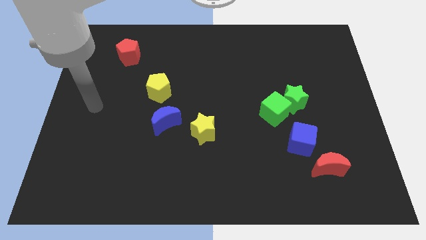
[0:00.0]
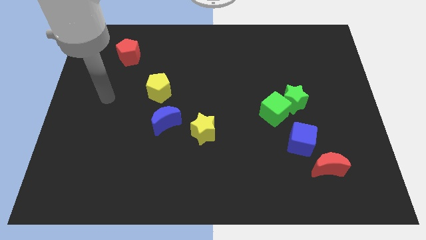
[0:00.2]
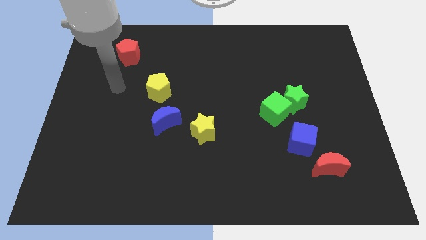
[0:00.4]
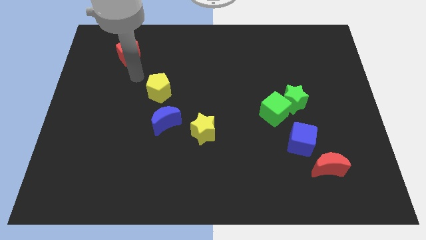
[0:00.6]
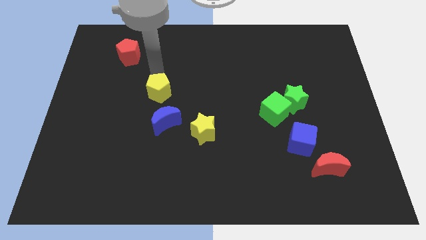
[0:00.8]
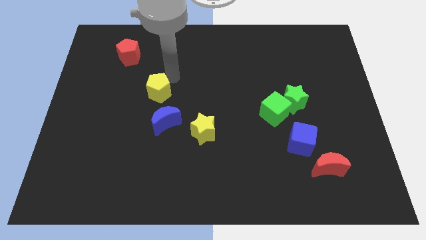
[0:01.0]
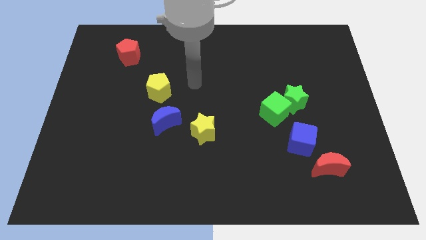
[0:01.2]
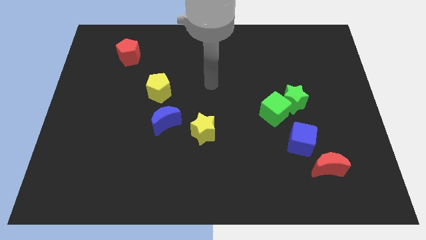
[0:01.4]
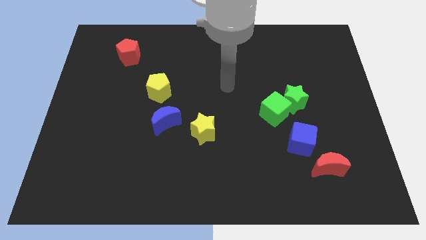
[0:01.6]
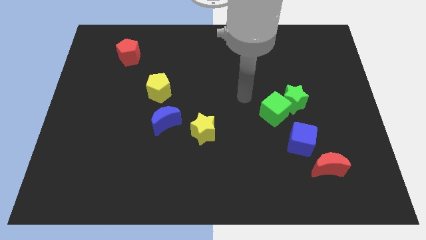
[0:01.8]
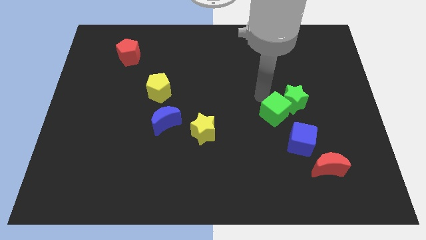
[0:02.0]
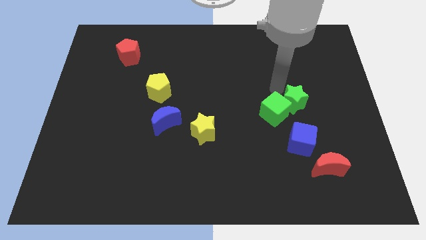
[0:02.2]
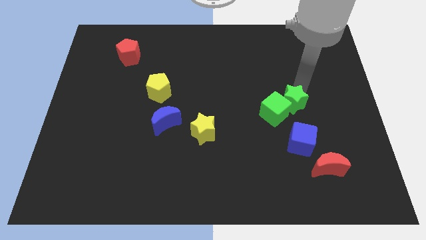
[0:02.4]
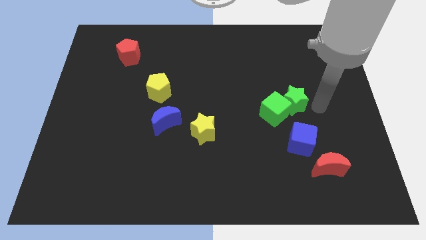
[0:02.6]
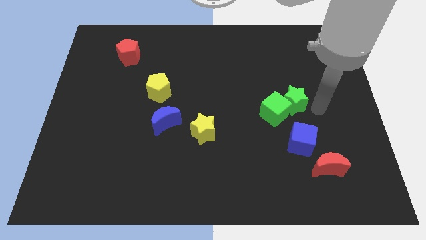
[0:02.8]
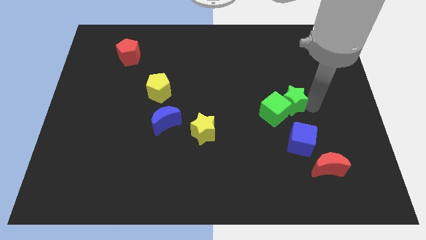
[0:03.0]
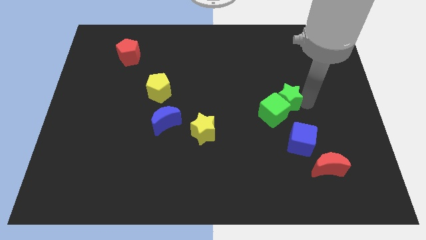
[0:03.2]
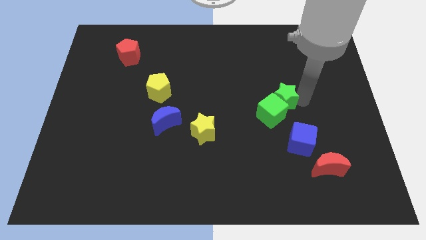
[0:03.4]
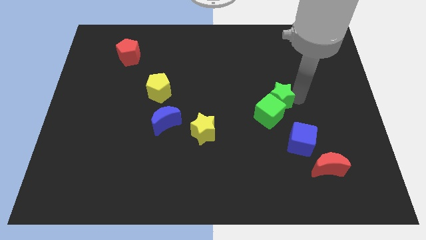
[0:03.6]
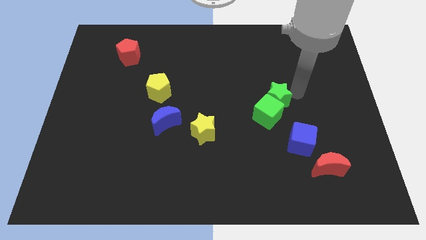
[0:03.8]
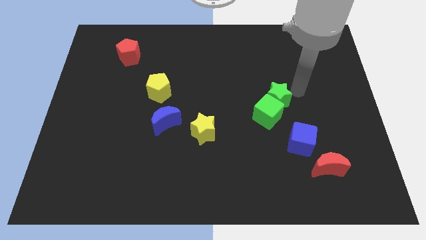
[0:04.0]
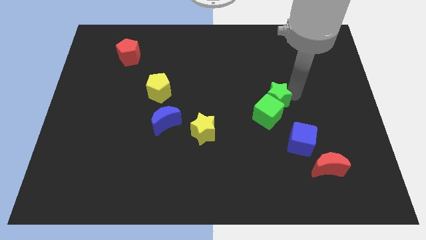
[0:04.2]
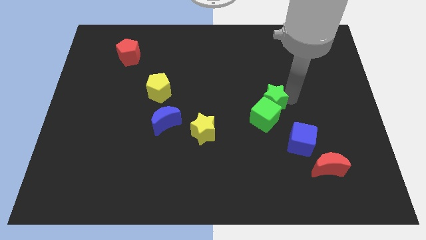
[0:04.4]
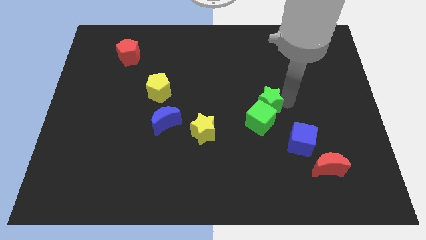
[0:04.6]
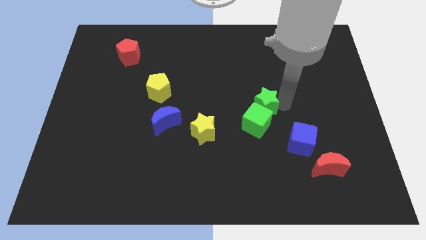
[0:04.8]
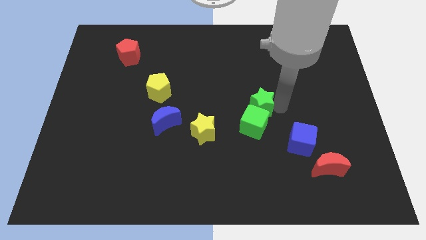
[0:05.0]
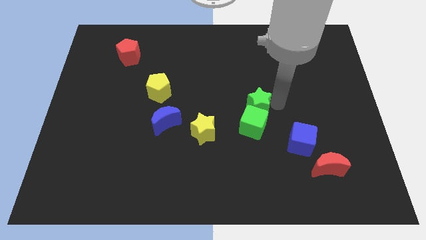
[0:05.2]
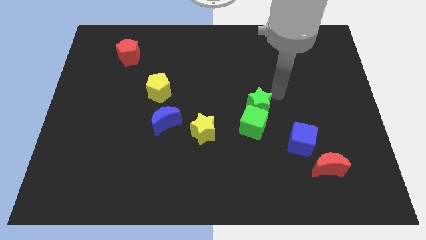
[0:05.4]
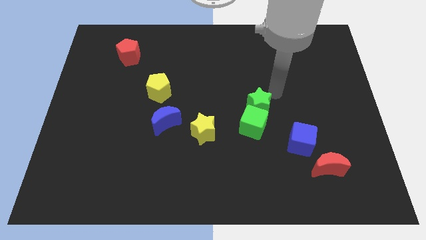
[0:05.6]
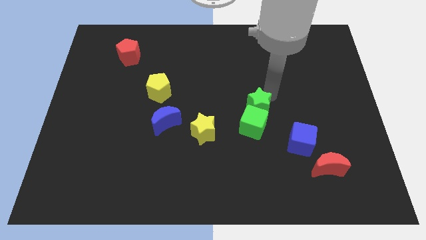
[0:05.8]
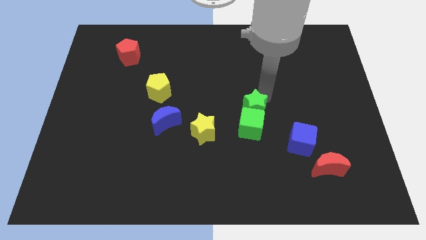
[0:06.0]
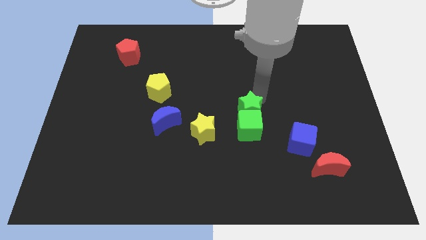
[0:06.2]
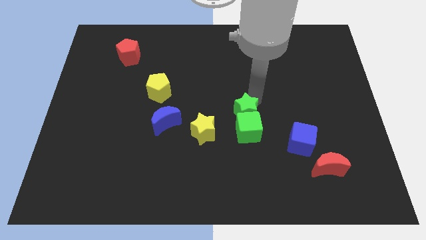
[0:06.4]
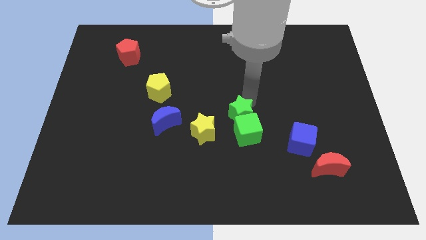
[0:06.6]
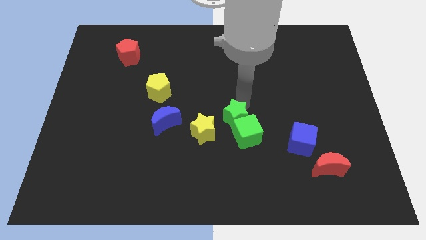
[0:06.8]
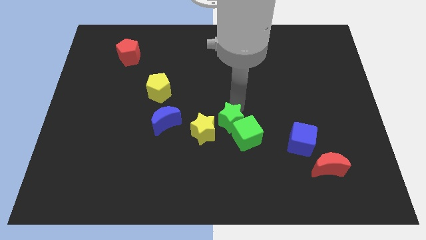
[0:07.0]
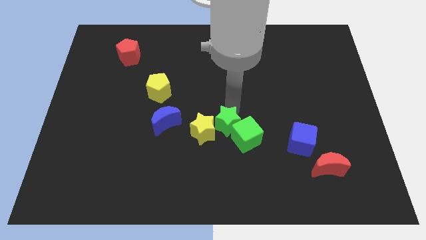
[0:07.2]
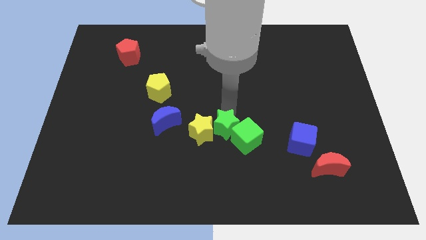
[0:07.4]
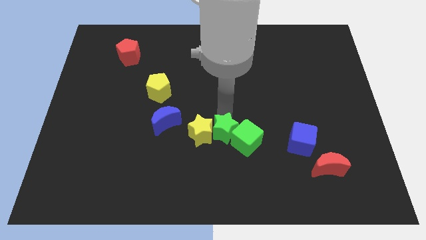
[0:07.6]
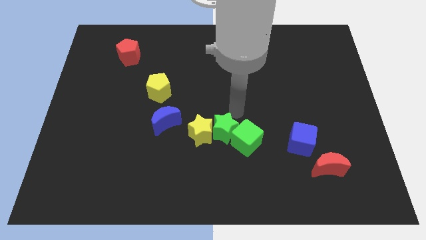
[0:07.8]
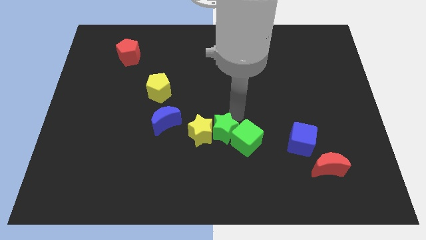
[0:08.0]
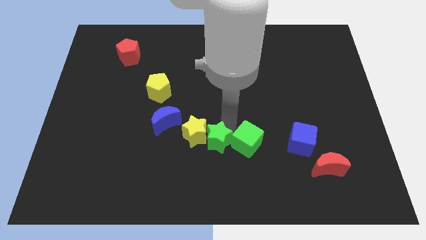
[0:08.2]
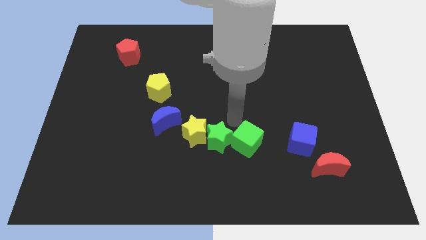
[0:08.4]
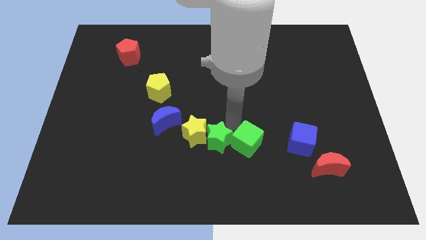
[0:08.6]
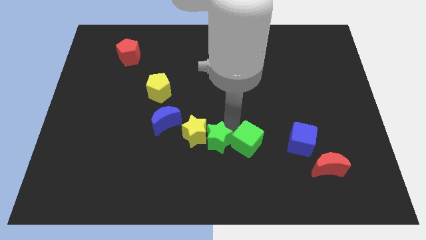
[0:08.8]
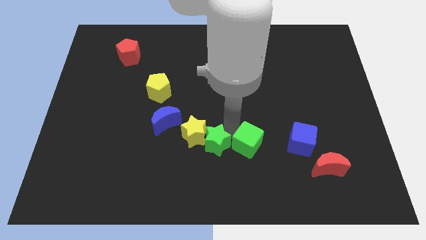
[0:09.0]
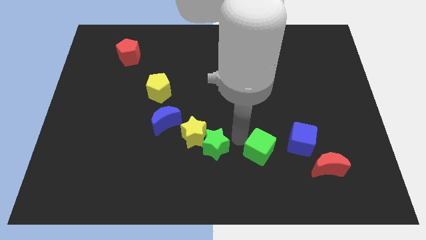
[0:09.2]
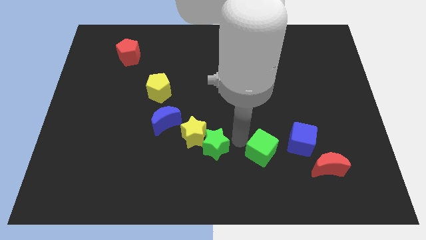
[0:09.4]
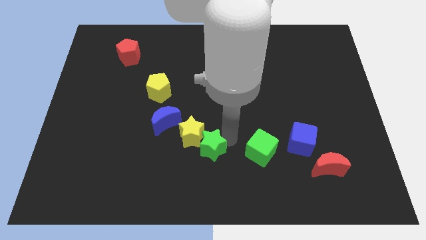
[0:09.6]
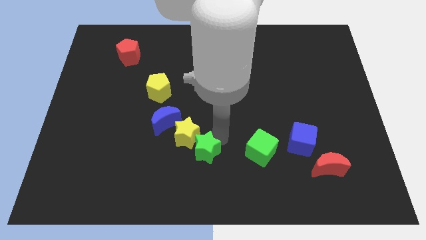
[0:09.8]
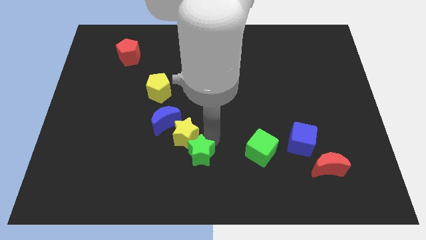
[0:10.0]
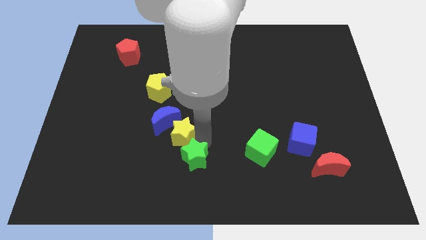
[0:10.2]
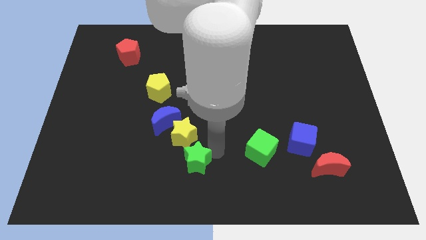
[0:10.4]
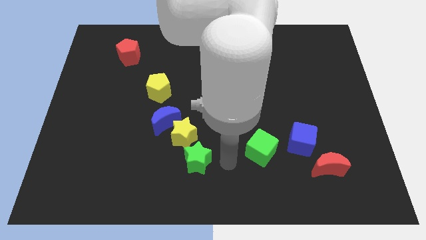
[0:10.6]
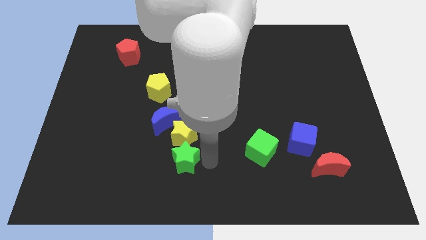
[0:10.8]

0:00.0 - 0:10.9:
put the green star diagonally down and to the left of the yellow star

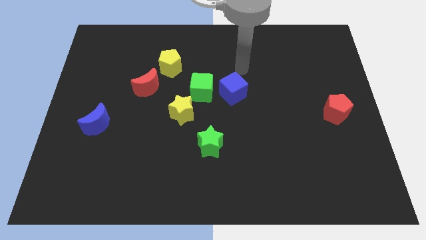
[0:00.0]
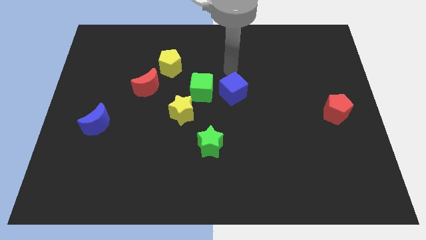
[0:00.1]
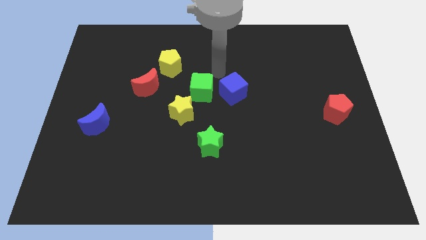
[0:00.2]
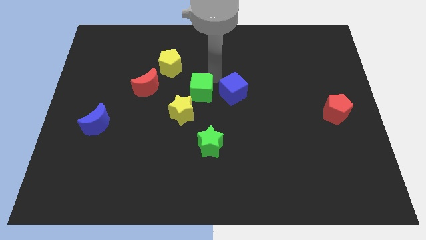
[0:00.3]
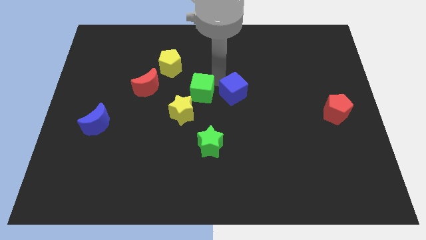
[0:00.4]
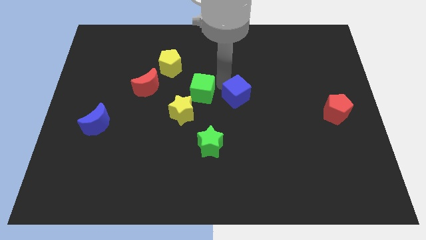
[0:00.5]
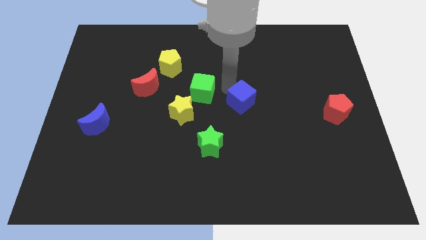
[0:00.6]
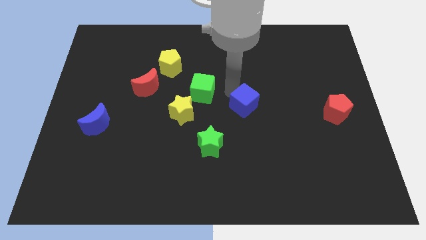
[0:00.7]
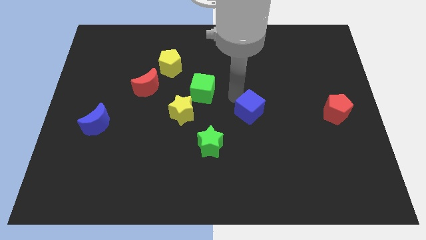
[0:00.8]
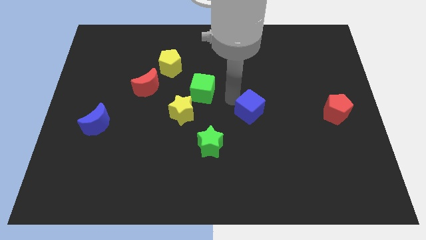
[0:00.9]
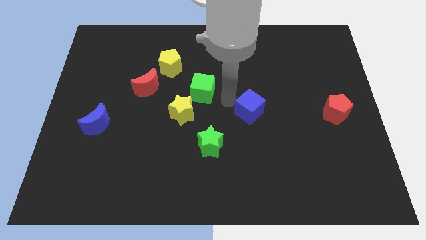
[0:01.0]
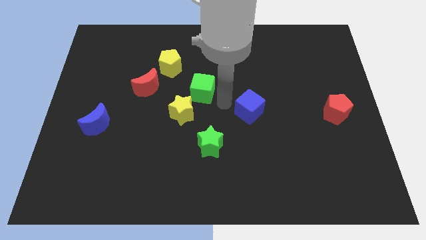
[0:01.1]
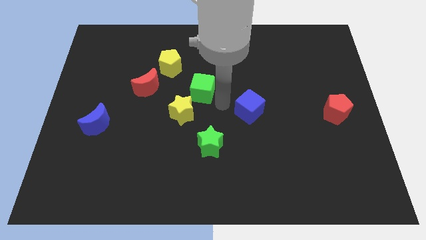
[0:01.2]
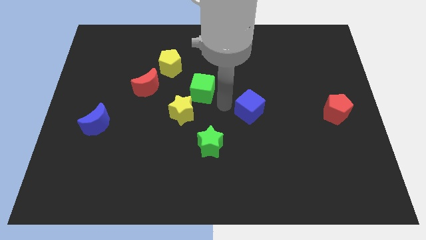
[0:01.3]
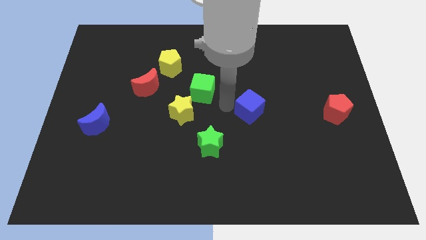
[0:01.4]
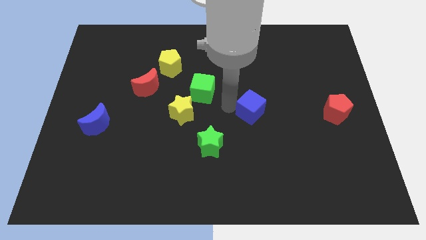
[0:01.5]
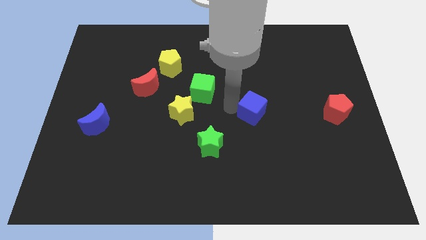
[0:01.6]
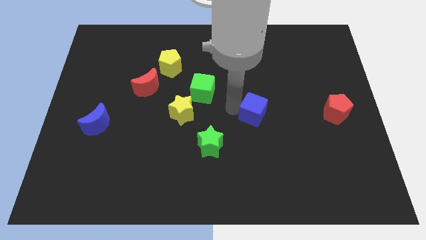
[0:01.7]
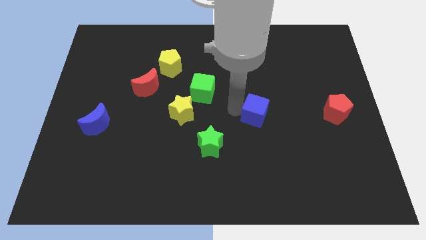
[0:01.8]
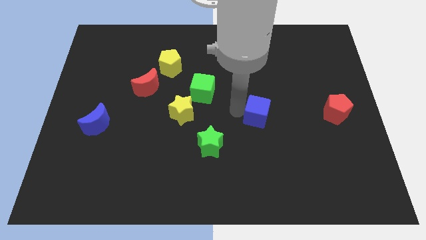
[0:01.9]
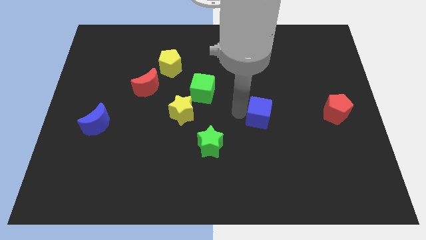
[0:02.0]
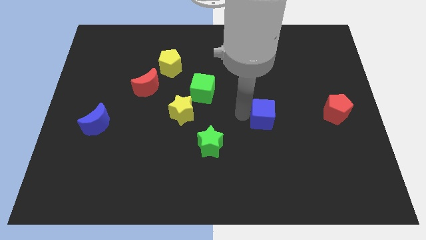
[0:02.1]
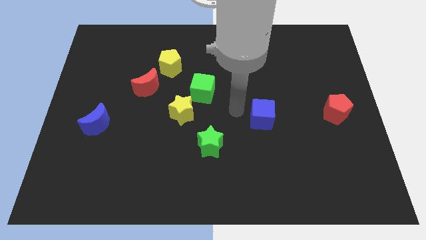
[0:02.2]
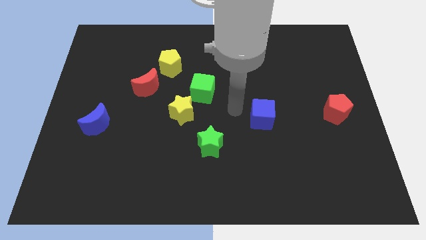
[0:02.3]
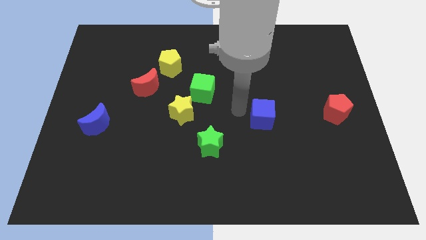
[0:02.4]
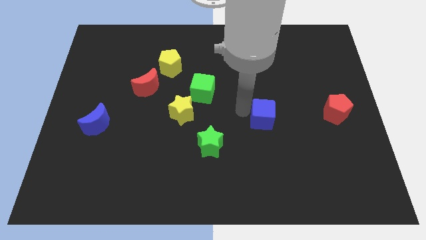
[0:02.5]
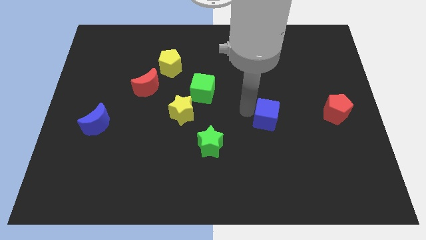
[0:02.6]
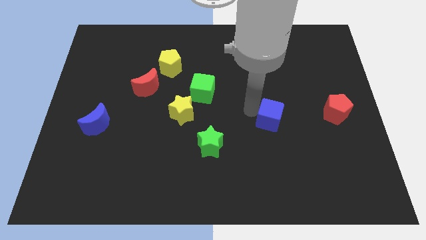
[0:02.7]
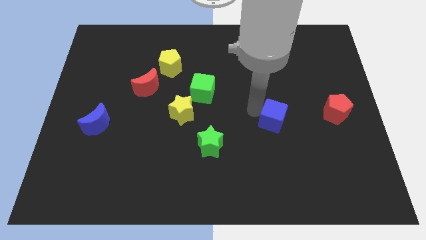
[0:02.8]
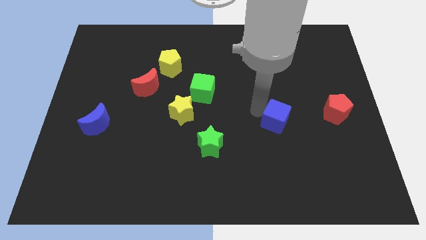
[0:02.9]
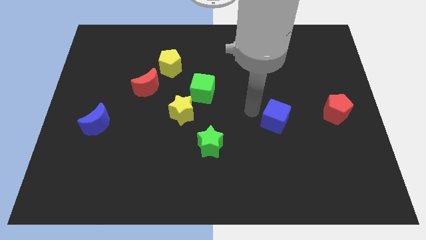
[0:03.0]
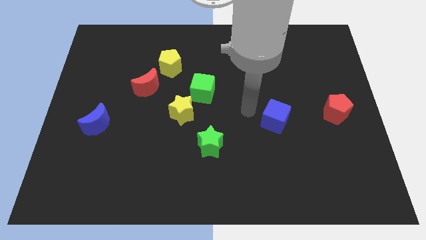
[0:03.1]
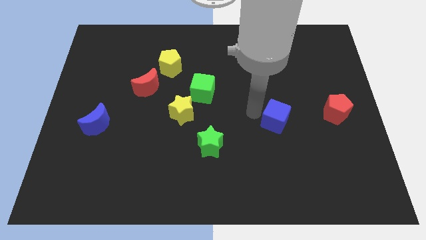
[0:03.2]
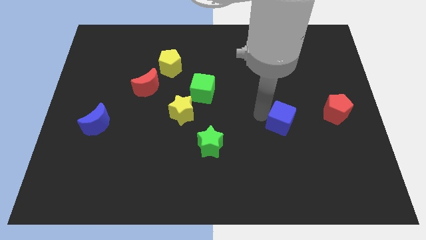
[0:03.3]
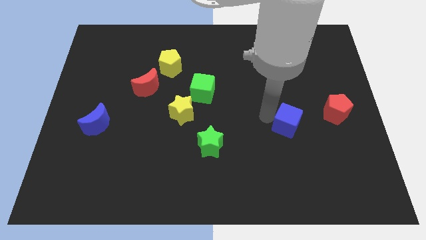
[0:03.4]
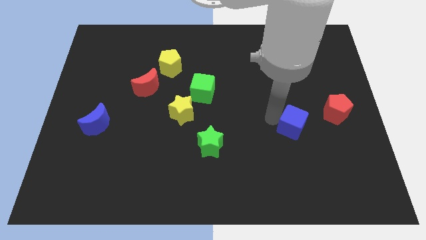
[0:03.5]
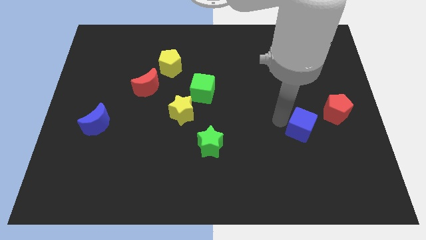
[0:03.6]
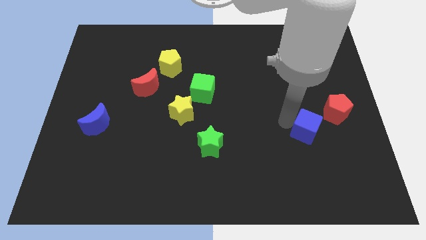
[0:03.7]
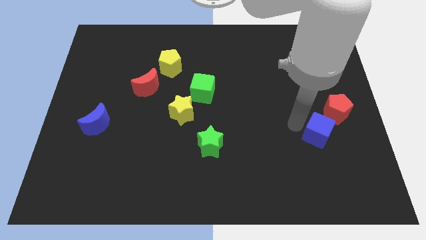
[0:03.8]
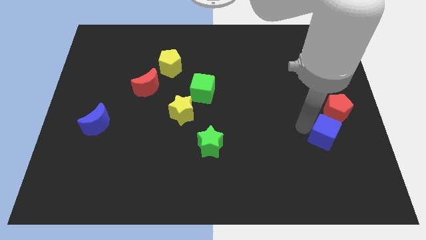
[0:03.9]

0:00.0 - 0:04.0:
push the blue cube below the red pentagon
